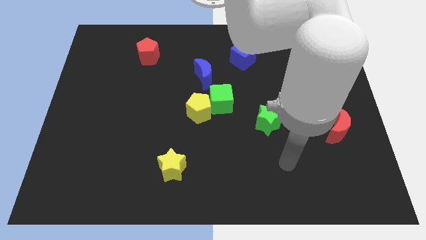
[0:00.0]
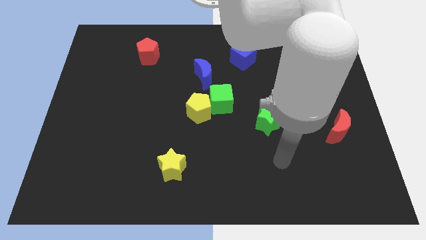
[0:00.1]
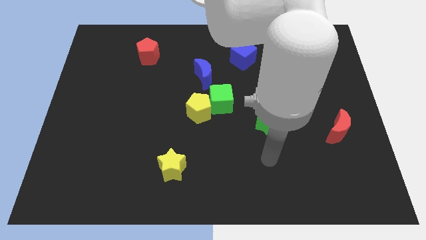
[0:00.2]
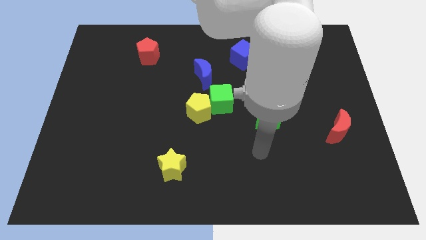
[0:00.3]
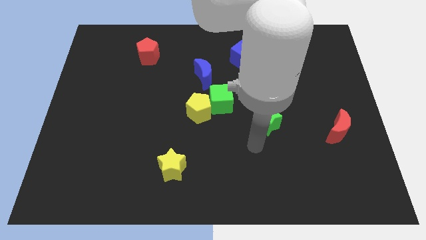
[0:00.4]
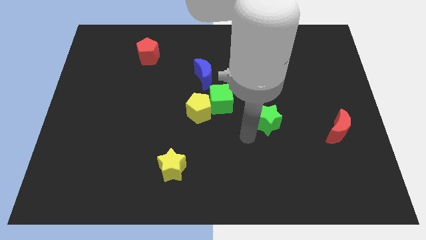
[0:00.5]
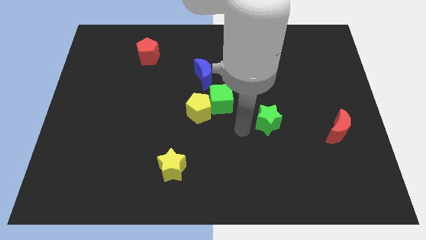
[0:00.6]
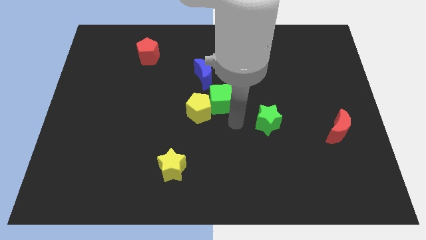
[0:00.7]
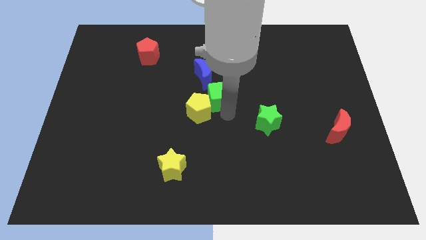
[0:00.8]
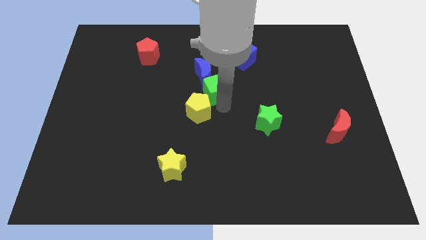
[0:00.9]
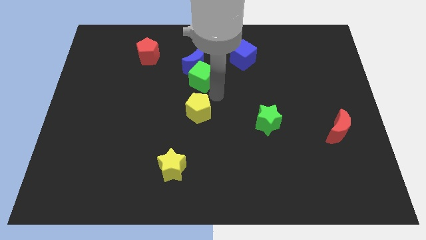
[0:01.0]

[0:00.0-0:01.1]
pull the yellow pentagon apart from the green cube

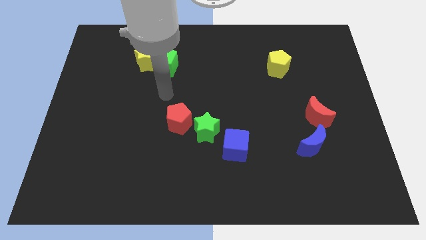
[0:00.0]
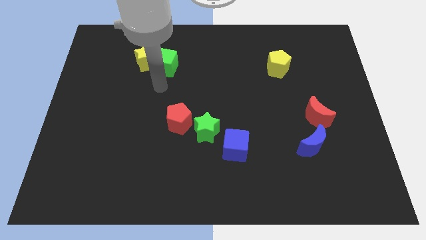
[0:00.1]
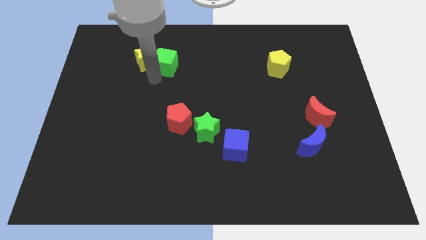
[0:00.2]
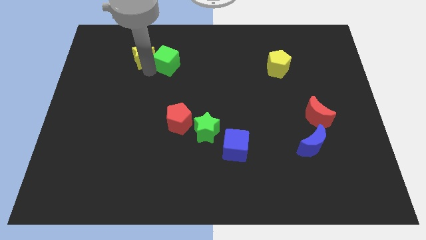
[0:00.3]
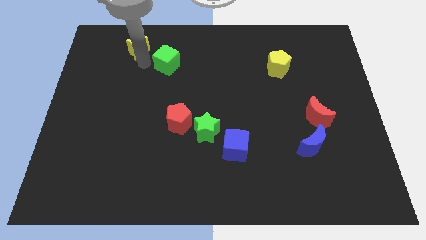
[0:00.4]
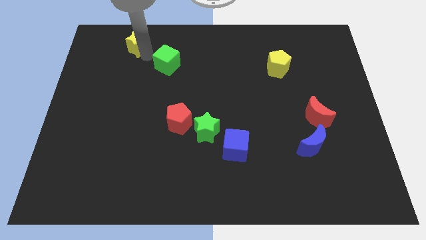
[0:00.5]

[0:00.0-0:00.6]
move the green cube away from the yellow star

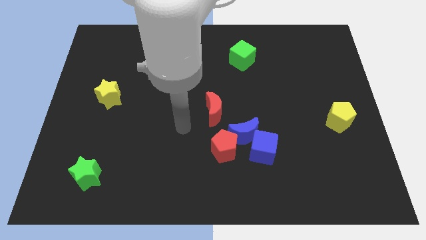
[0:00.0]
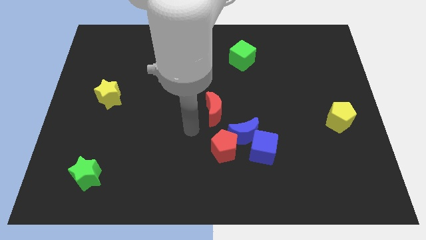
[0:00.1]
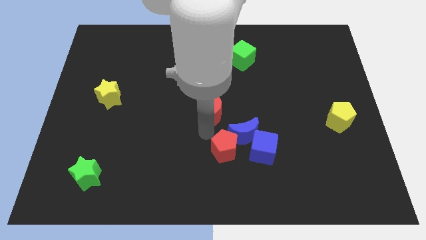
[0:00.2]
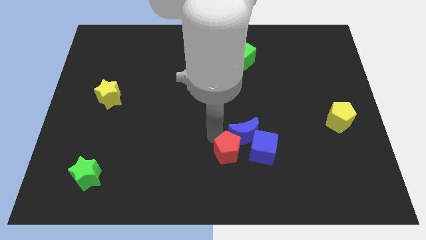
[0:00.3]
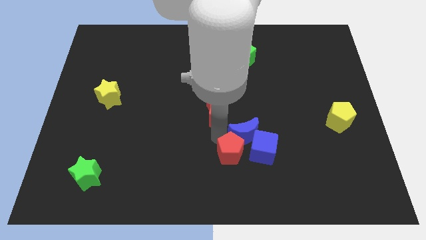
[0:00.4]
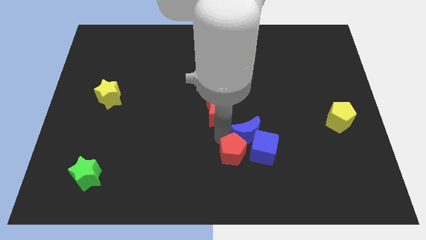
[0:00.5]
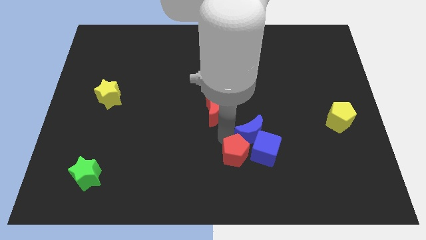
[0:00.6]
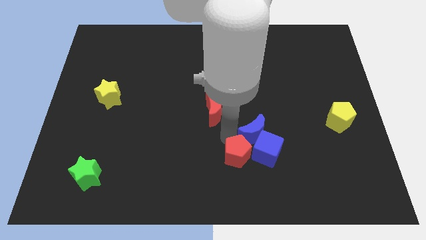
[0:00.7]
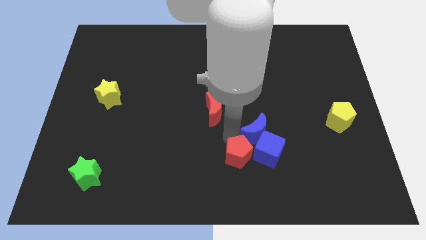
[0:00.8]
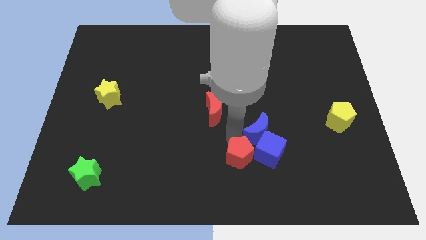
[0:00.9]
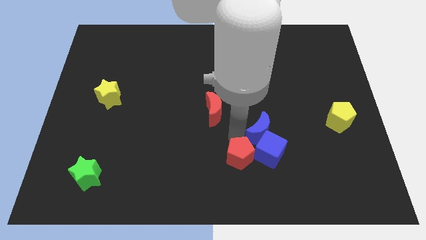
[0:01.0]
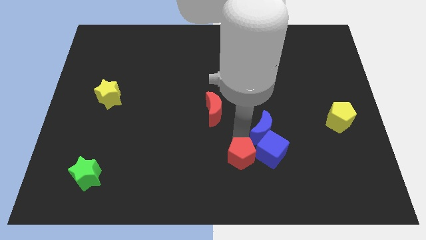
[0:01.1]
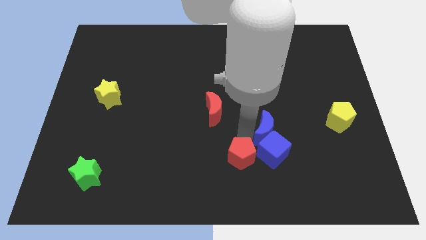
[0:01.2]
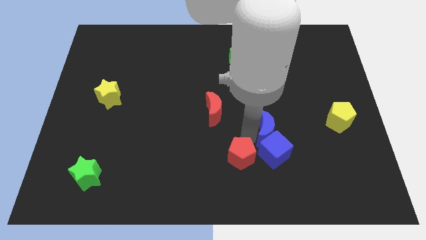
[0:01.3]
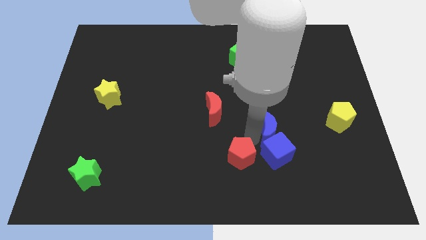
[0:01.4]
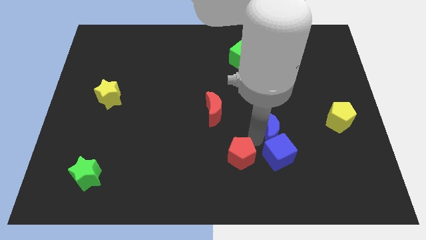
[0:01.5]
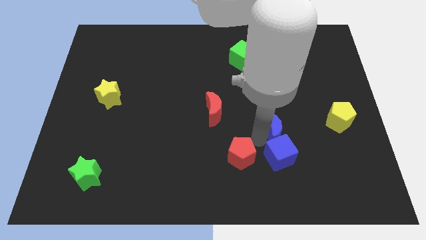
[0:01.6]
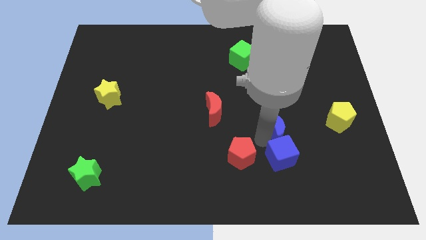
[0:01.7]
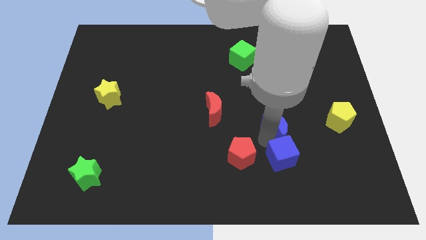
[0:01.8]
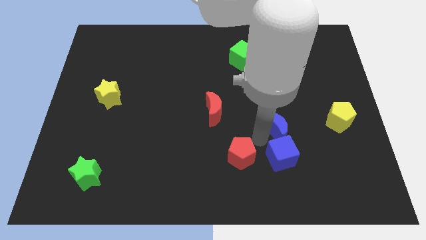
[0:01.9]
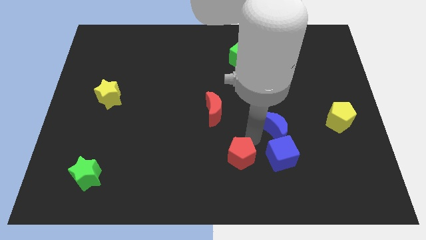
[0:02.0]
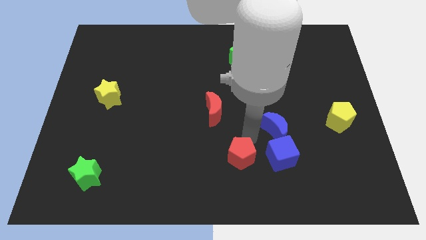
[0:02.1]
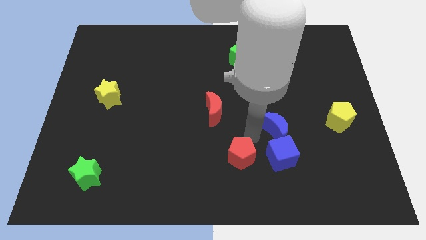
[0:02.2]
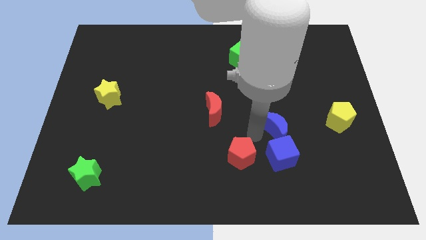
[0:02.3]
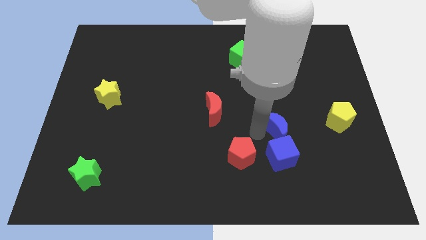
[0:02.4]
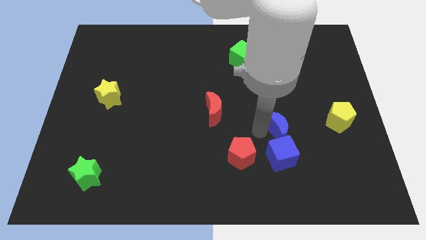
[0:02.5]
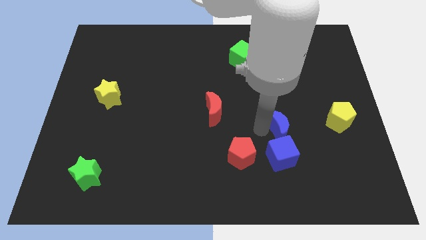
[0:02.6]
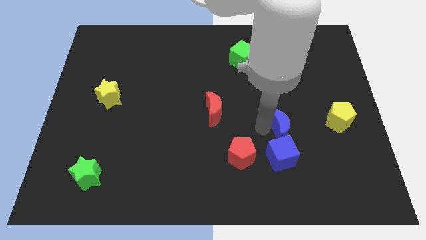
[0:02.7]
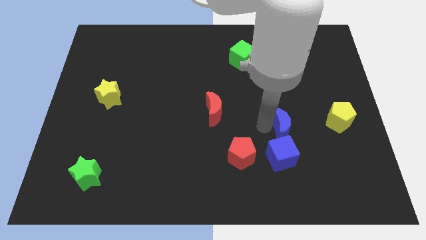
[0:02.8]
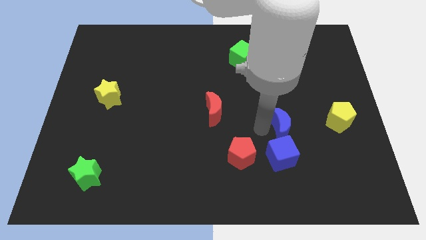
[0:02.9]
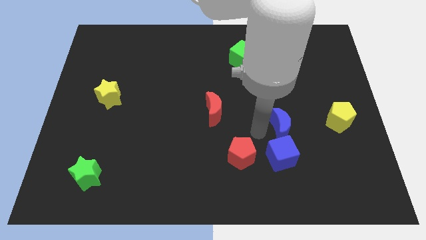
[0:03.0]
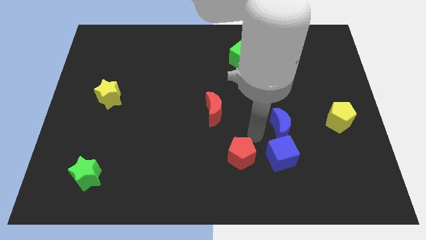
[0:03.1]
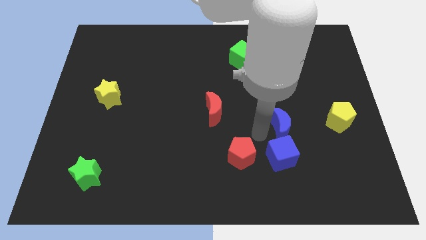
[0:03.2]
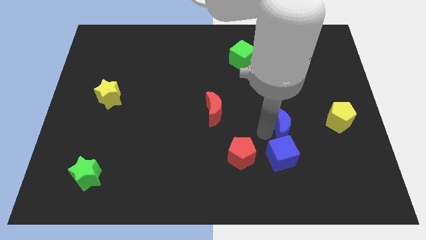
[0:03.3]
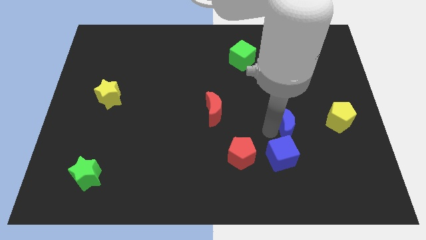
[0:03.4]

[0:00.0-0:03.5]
pull the blue moon apart from the blue cube, red pentagon, and red moon

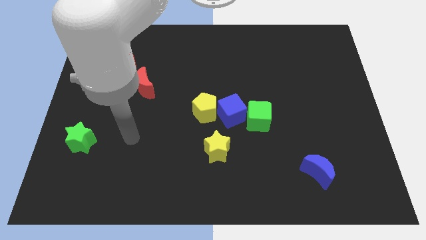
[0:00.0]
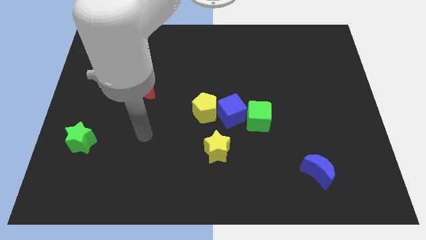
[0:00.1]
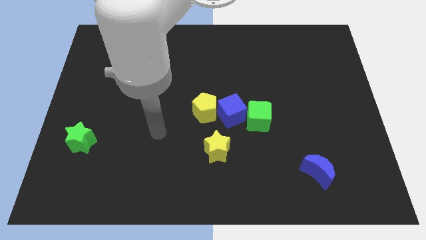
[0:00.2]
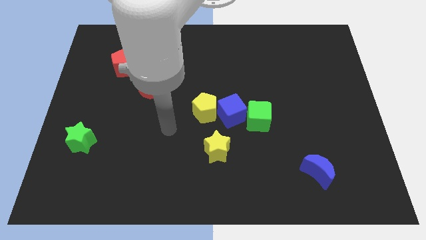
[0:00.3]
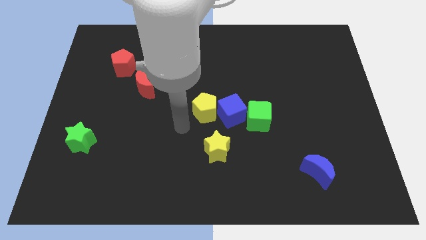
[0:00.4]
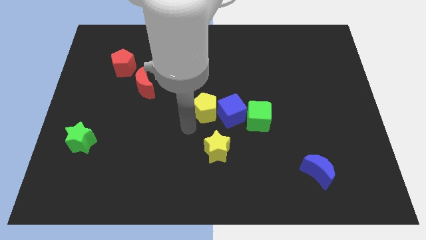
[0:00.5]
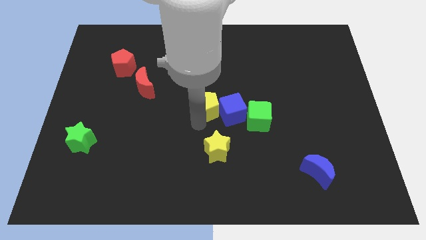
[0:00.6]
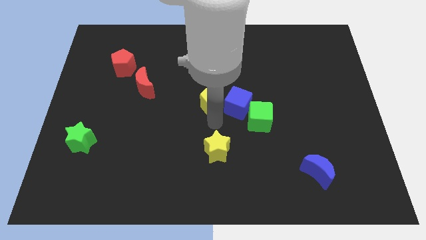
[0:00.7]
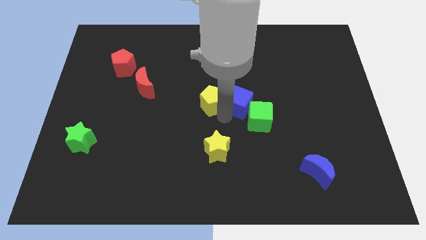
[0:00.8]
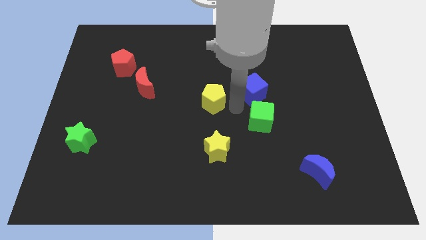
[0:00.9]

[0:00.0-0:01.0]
move the yellow pentagon away from the blue cube

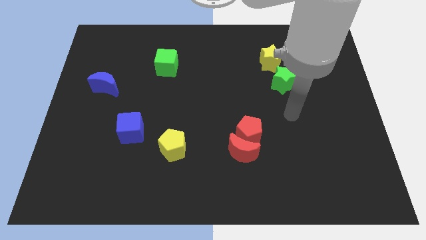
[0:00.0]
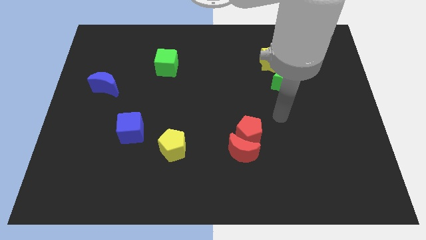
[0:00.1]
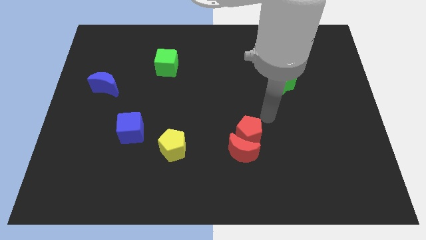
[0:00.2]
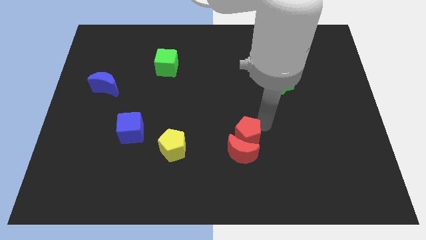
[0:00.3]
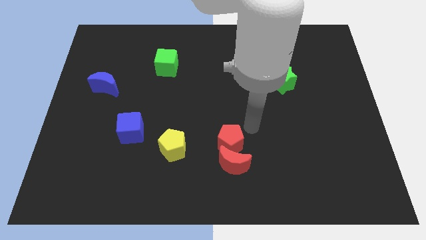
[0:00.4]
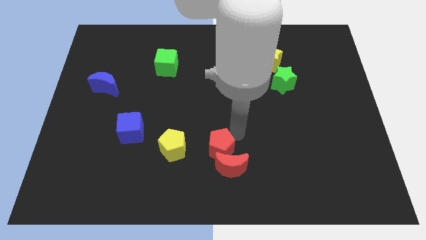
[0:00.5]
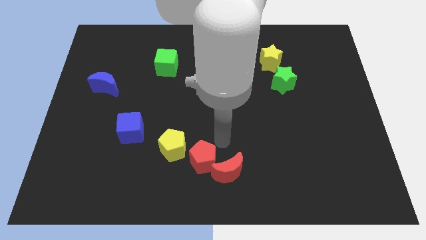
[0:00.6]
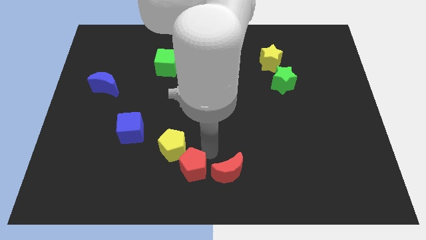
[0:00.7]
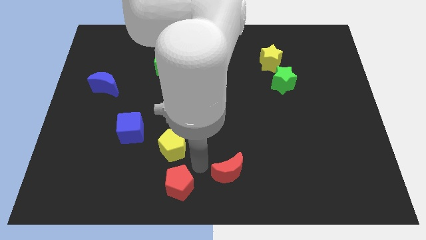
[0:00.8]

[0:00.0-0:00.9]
pull the red moon apart from the red pentagon

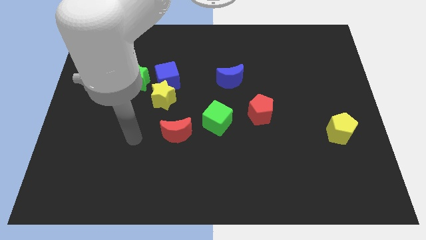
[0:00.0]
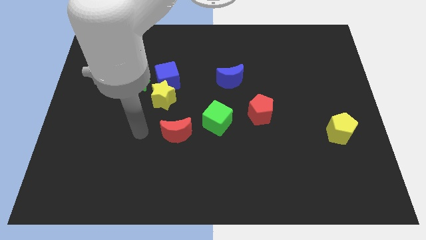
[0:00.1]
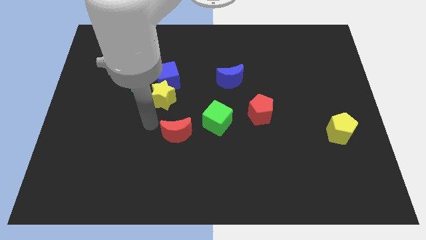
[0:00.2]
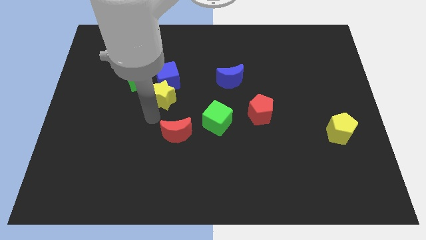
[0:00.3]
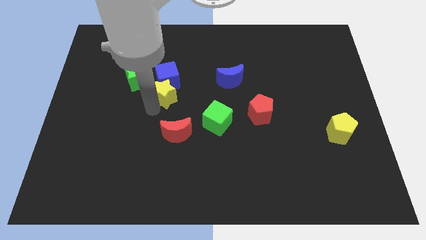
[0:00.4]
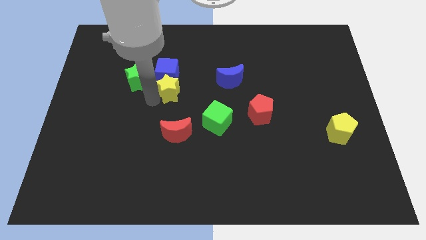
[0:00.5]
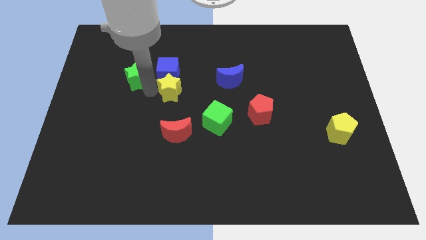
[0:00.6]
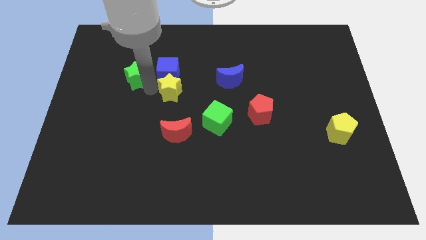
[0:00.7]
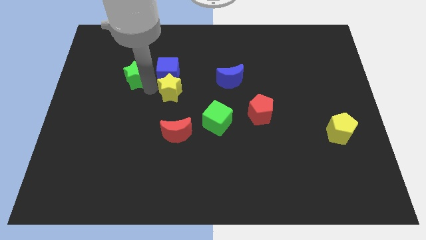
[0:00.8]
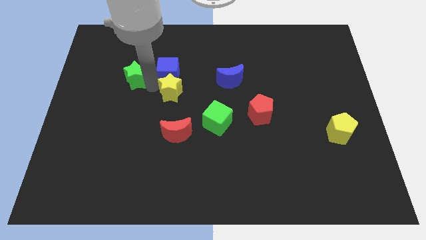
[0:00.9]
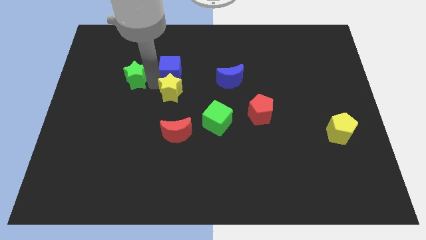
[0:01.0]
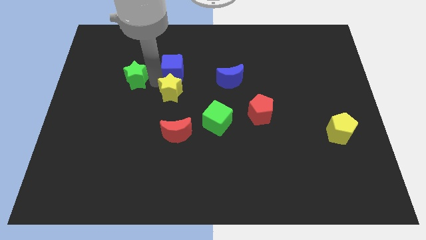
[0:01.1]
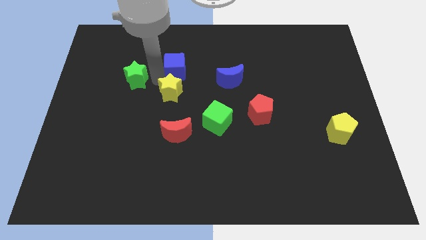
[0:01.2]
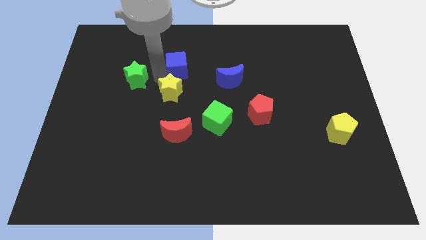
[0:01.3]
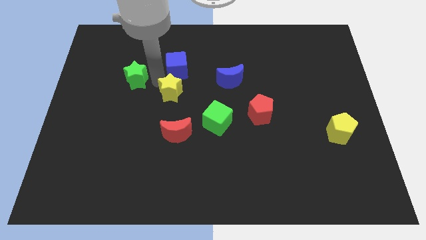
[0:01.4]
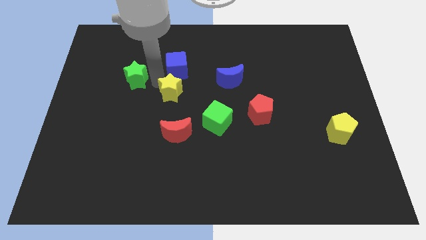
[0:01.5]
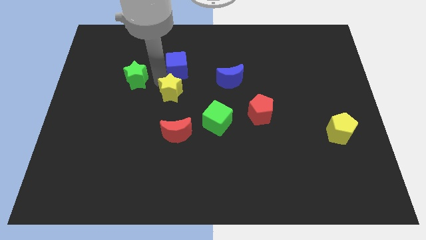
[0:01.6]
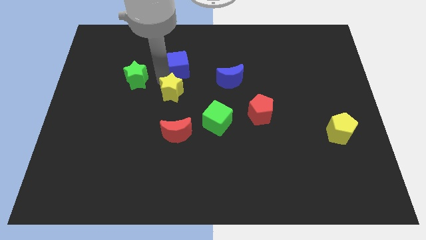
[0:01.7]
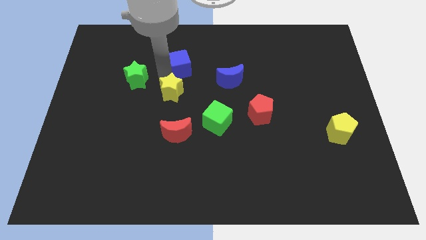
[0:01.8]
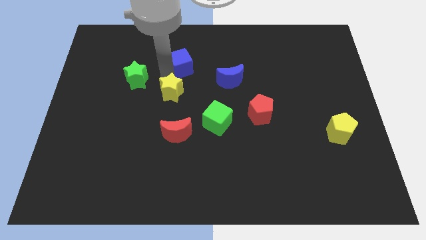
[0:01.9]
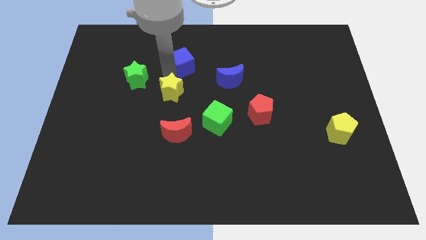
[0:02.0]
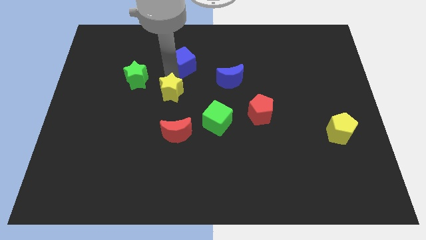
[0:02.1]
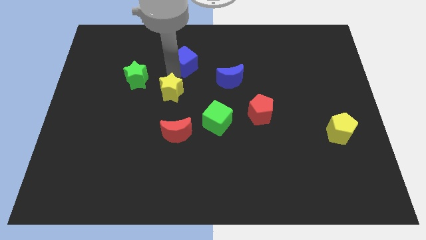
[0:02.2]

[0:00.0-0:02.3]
pull the blue cube apart from the yellow star and green star
